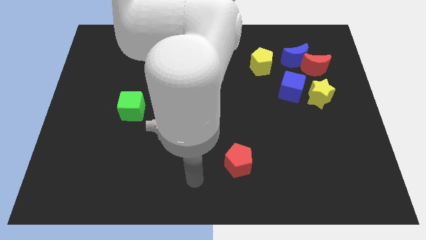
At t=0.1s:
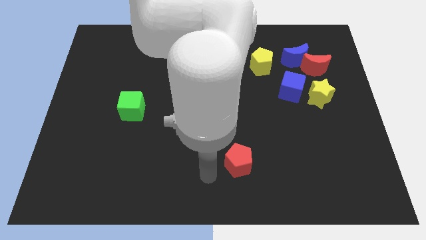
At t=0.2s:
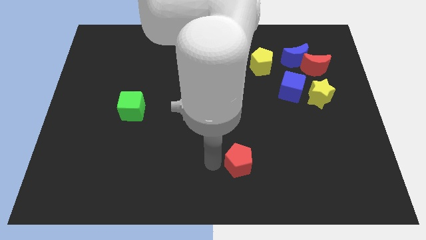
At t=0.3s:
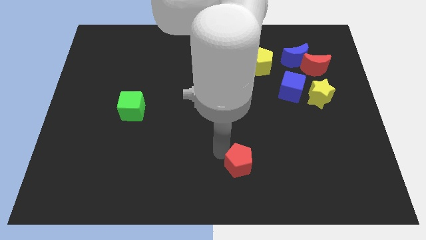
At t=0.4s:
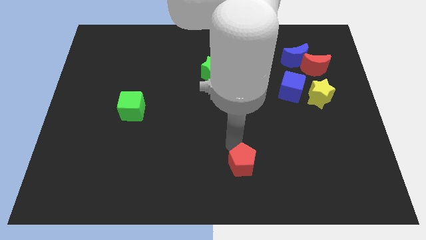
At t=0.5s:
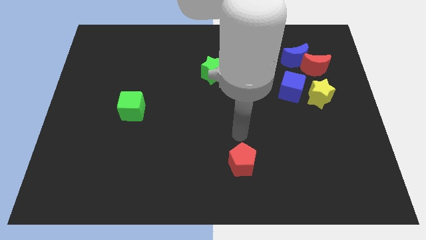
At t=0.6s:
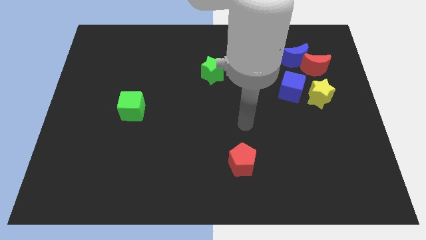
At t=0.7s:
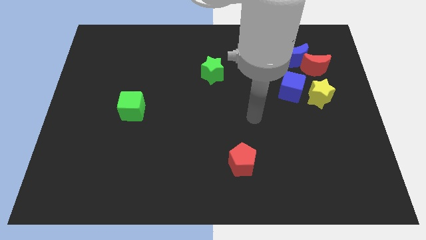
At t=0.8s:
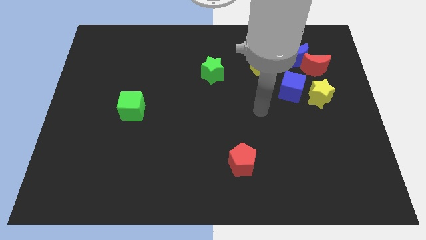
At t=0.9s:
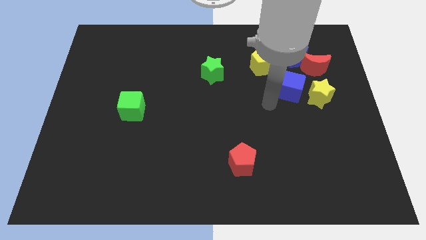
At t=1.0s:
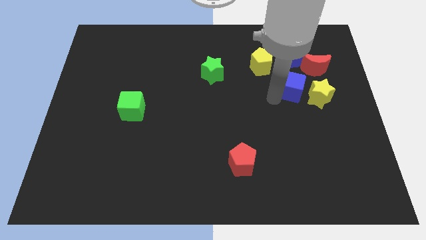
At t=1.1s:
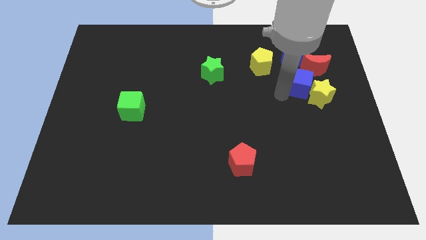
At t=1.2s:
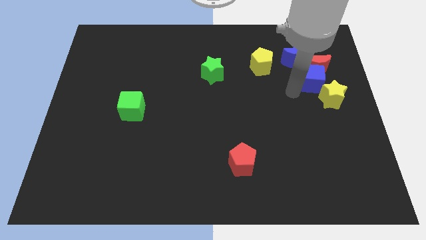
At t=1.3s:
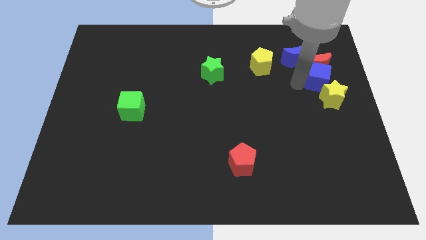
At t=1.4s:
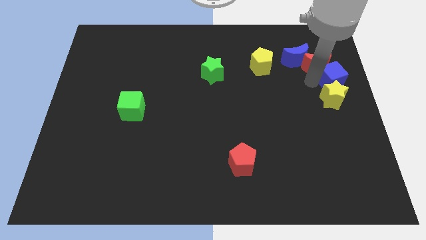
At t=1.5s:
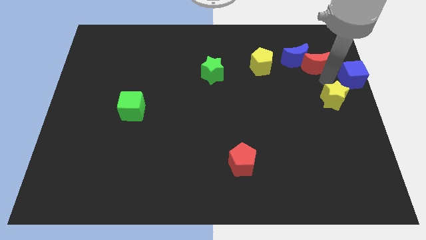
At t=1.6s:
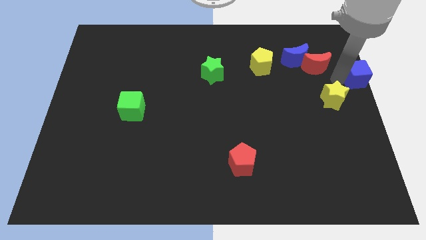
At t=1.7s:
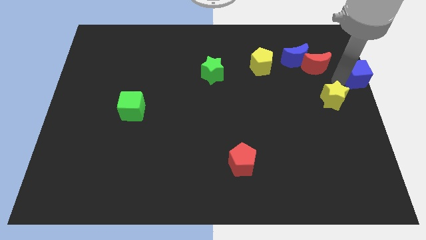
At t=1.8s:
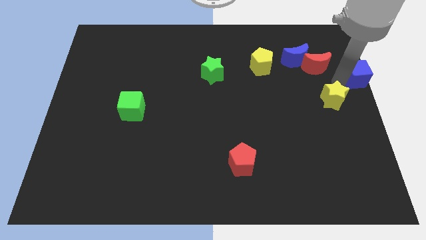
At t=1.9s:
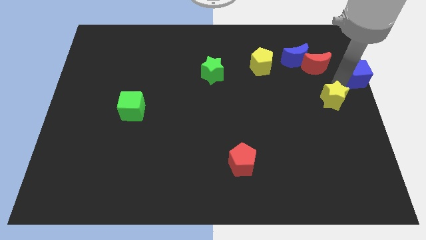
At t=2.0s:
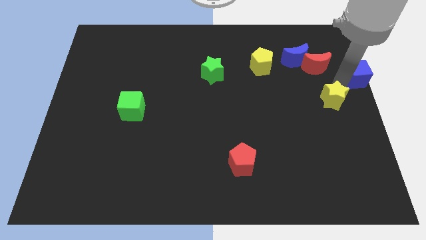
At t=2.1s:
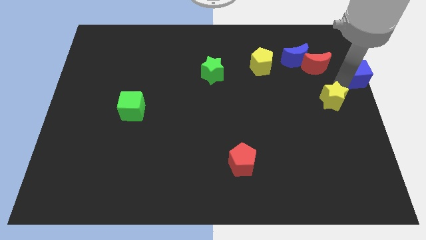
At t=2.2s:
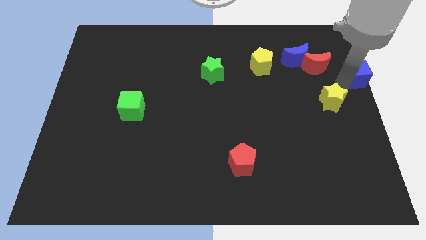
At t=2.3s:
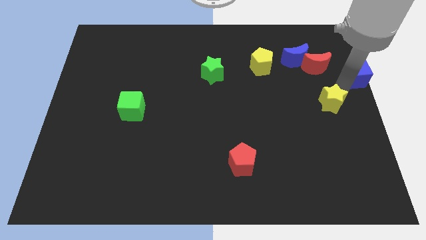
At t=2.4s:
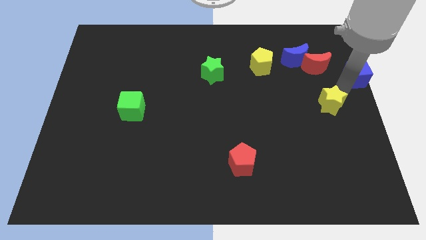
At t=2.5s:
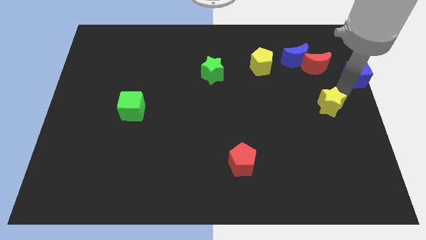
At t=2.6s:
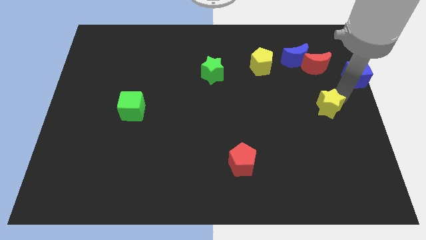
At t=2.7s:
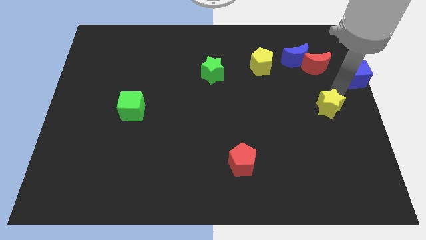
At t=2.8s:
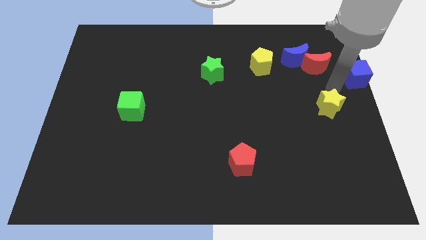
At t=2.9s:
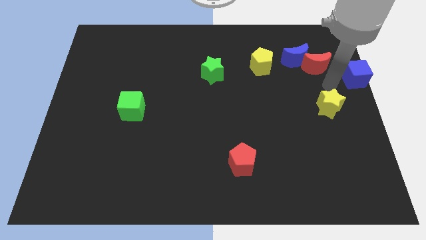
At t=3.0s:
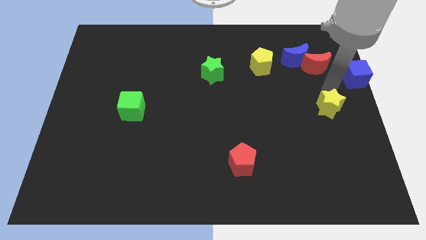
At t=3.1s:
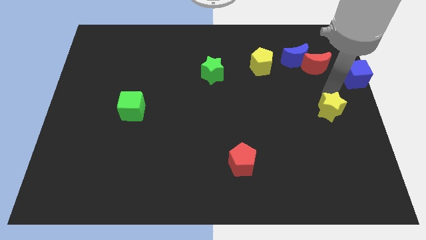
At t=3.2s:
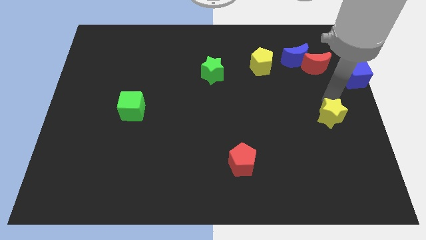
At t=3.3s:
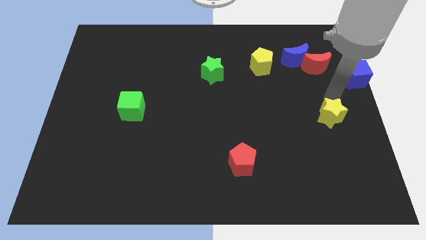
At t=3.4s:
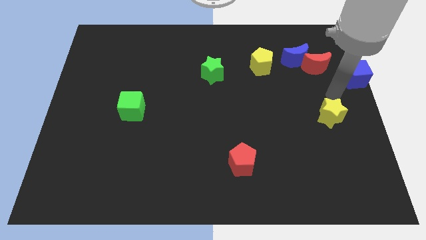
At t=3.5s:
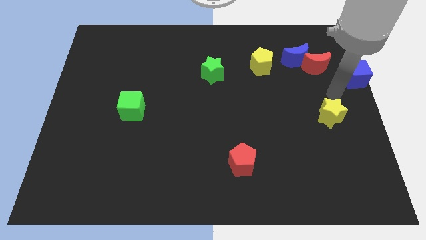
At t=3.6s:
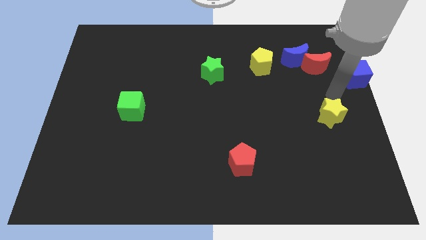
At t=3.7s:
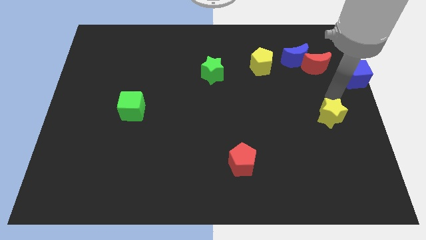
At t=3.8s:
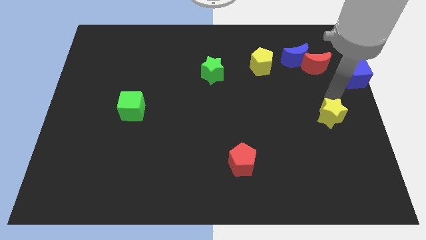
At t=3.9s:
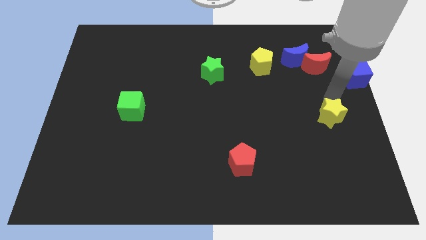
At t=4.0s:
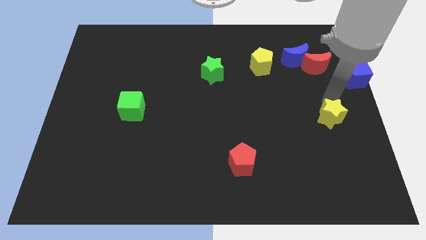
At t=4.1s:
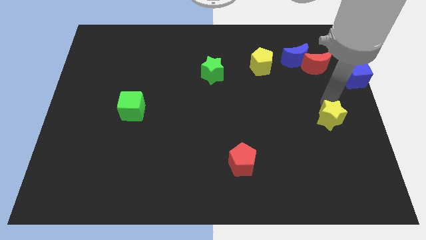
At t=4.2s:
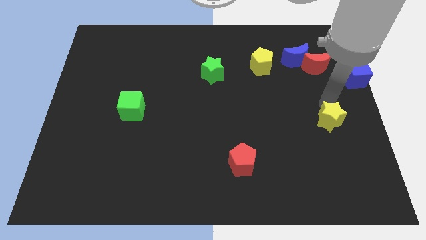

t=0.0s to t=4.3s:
slide the yellow star down somewhat

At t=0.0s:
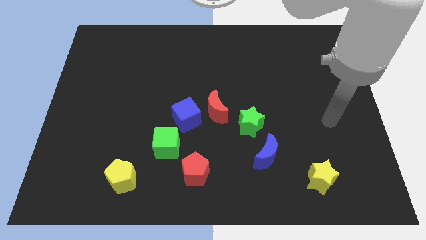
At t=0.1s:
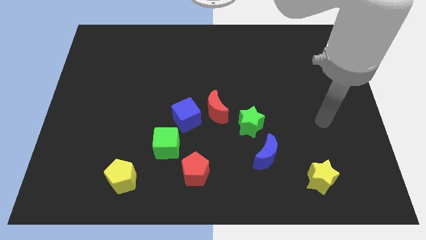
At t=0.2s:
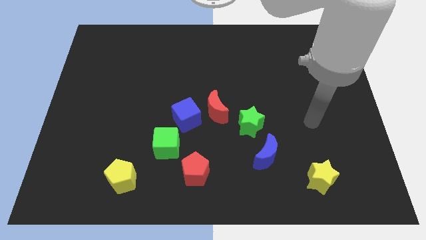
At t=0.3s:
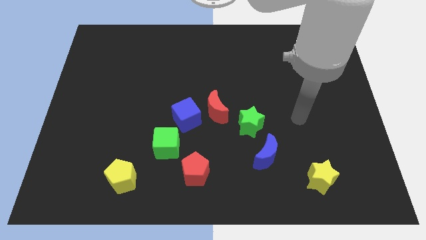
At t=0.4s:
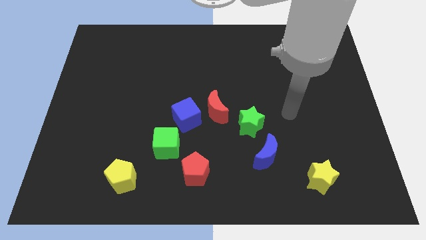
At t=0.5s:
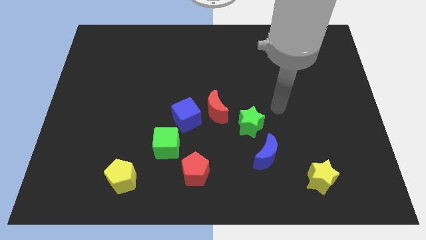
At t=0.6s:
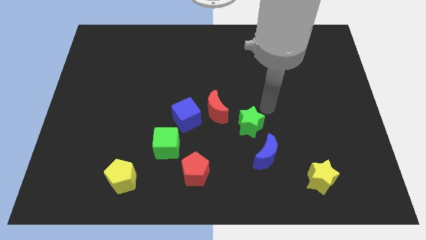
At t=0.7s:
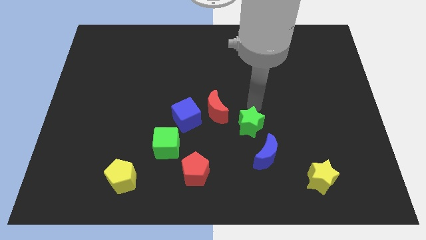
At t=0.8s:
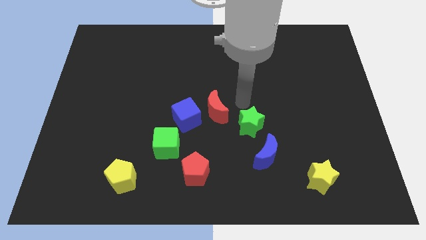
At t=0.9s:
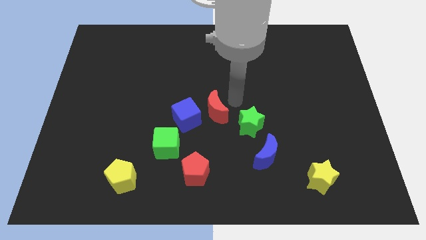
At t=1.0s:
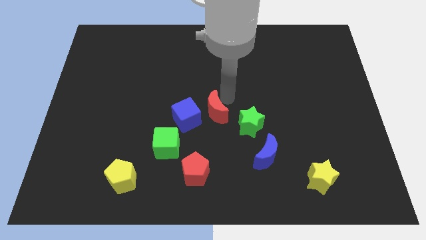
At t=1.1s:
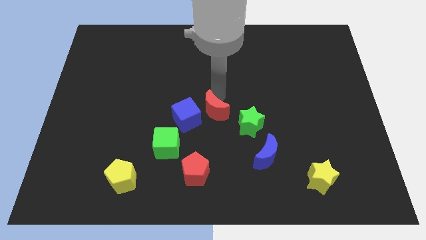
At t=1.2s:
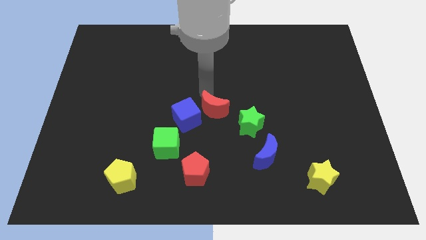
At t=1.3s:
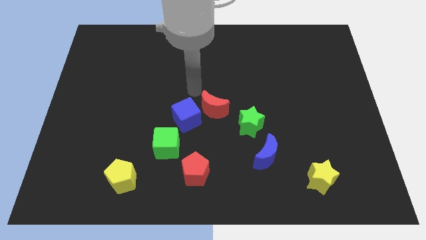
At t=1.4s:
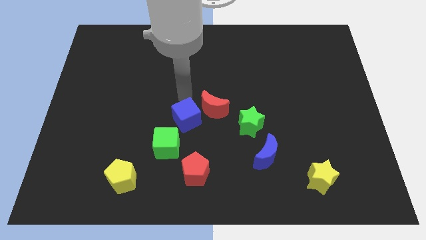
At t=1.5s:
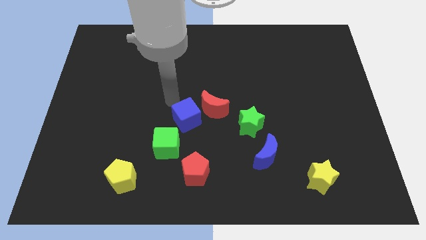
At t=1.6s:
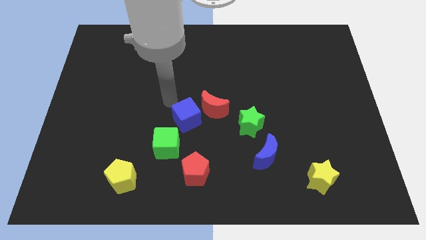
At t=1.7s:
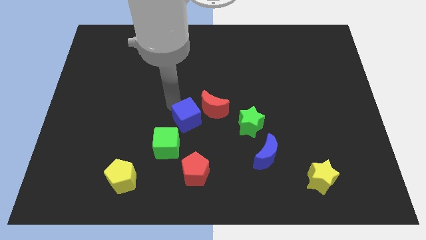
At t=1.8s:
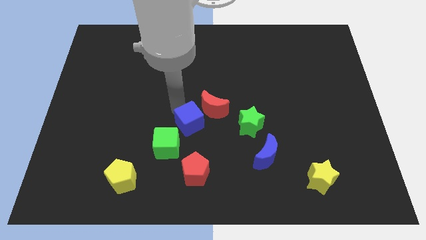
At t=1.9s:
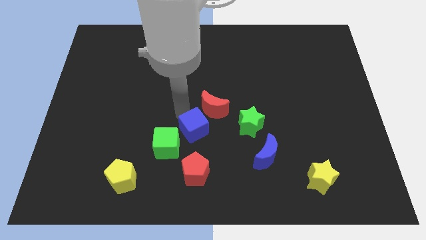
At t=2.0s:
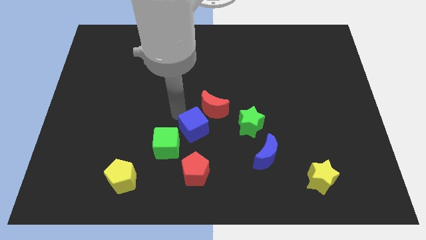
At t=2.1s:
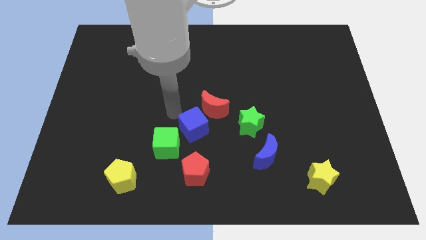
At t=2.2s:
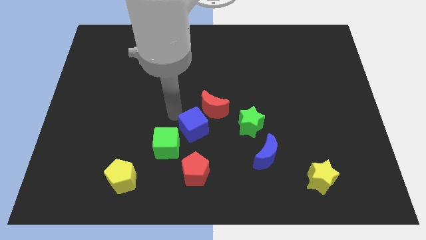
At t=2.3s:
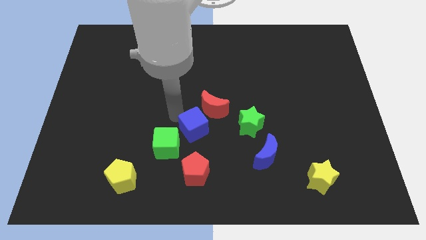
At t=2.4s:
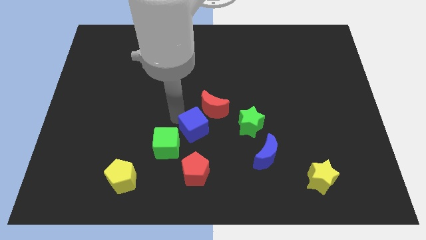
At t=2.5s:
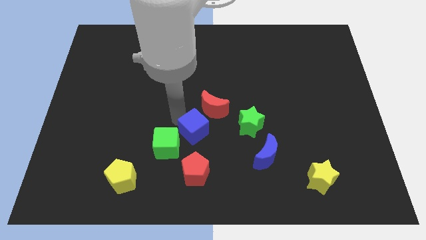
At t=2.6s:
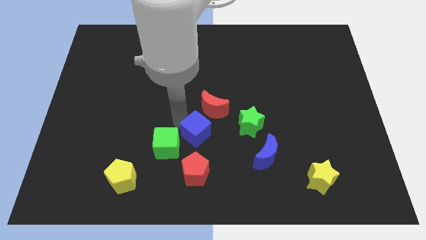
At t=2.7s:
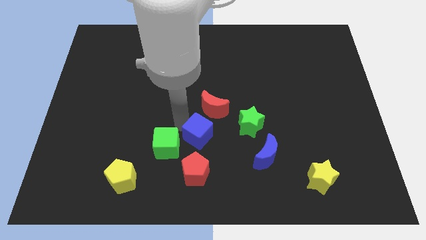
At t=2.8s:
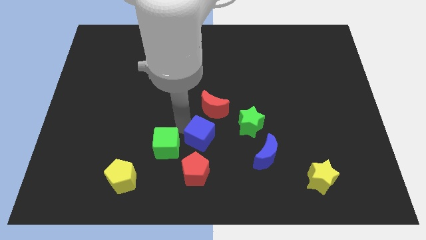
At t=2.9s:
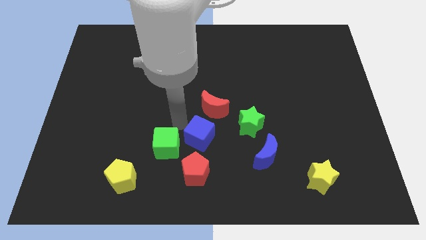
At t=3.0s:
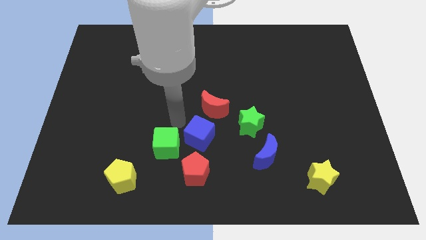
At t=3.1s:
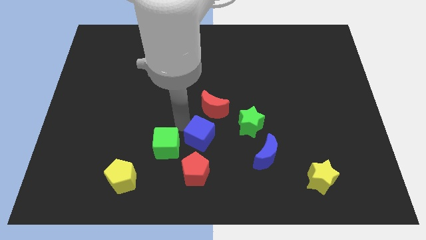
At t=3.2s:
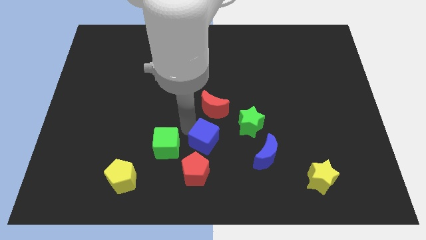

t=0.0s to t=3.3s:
slightly slide the blue cube downwards and right diagonally

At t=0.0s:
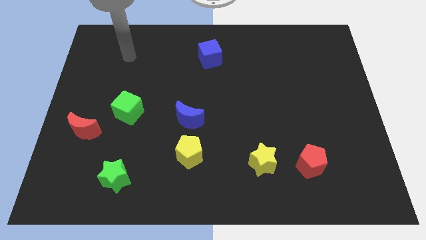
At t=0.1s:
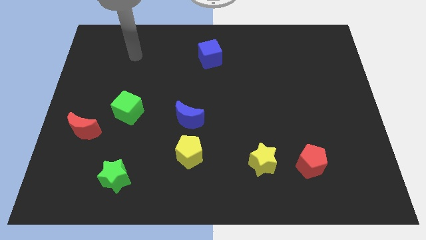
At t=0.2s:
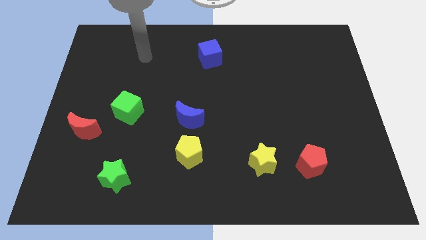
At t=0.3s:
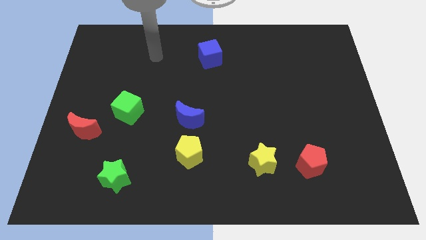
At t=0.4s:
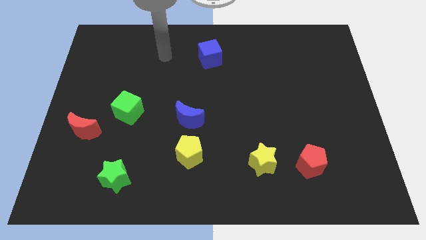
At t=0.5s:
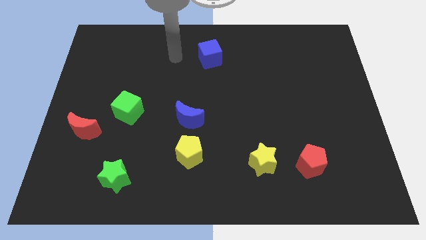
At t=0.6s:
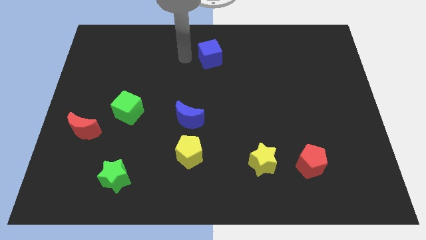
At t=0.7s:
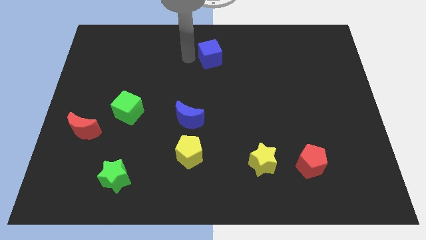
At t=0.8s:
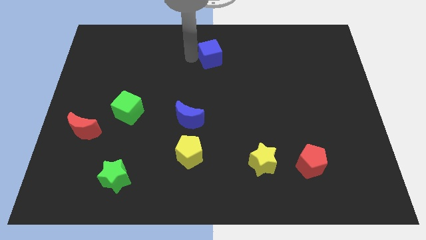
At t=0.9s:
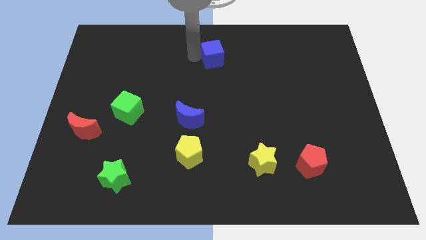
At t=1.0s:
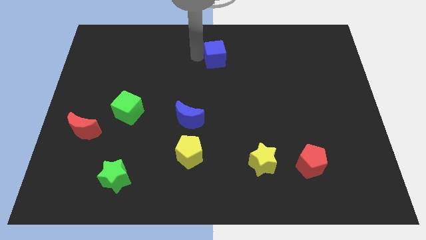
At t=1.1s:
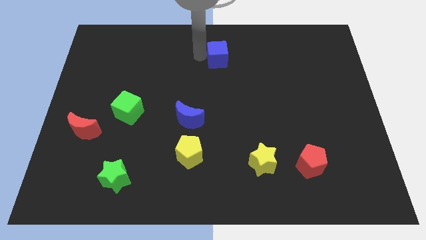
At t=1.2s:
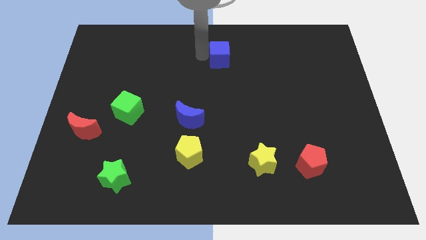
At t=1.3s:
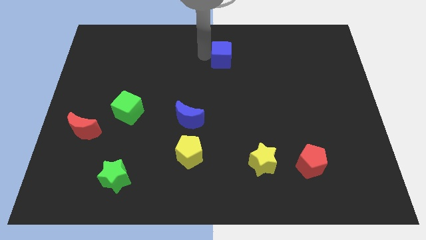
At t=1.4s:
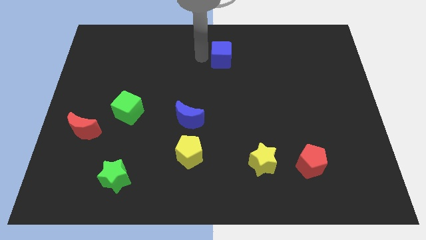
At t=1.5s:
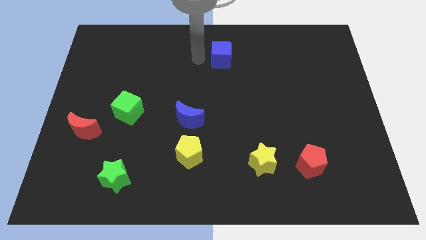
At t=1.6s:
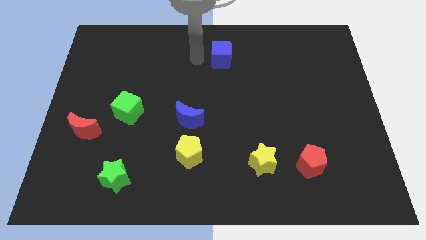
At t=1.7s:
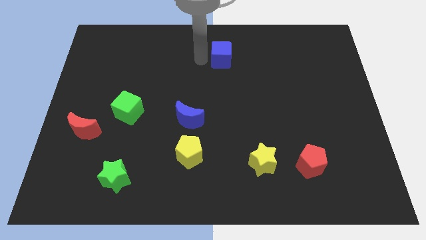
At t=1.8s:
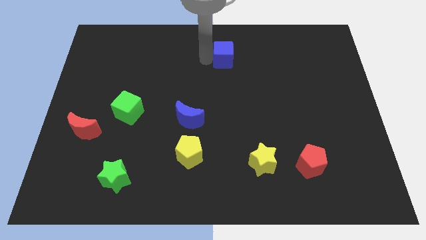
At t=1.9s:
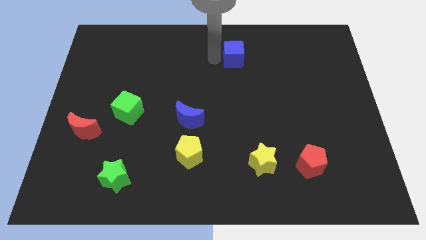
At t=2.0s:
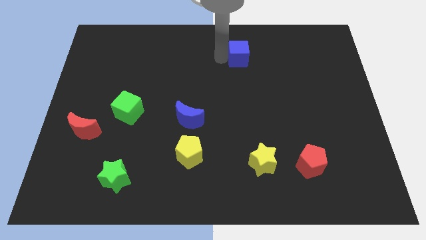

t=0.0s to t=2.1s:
push the blue cube slightly to the right
